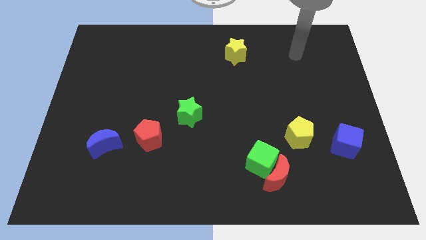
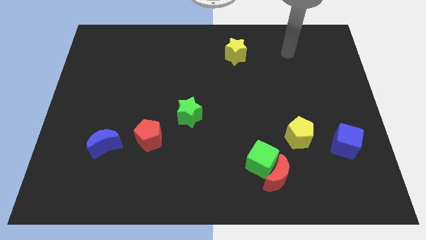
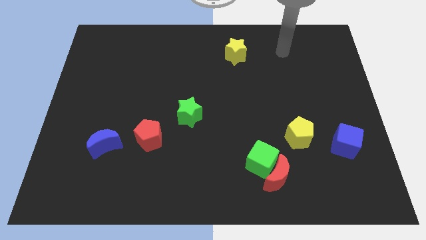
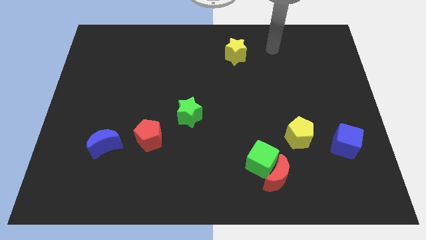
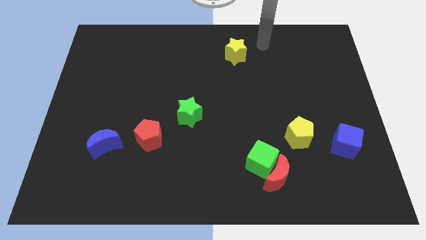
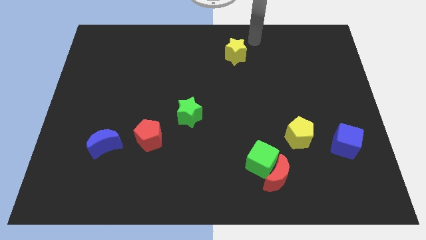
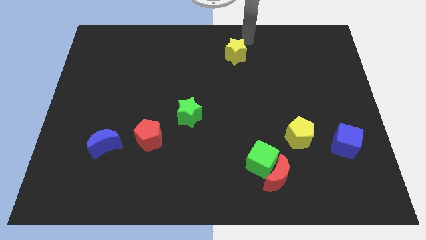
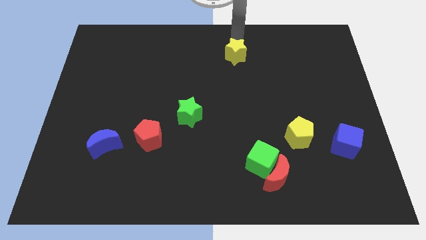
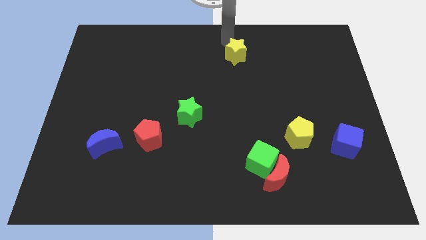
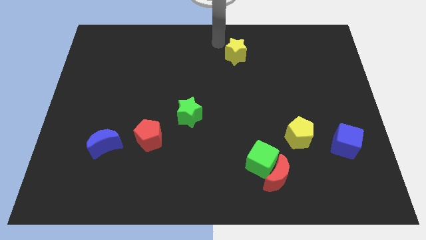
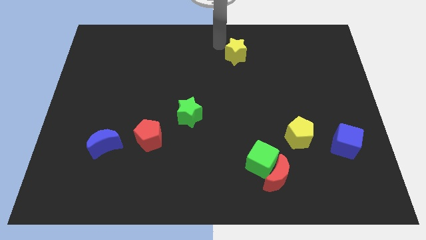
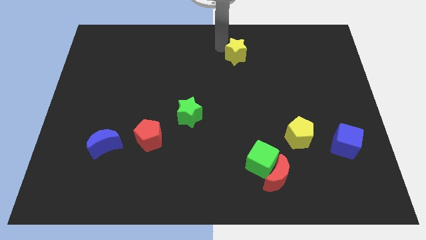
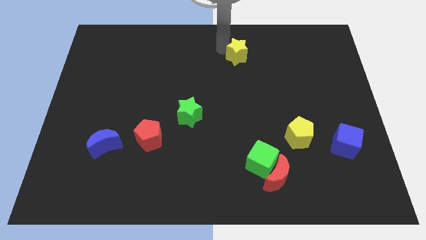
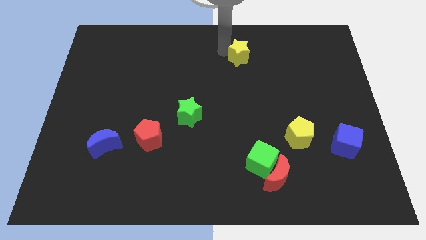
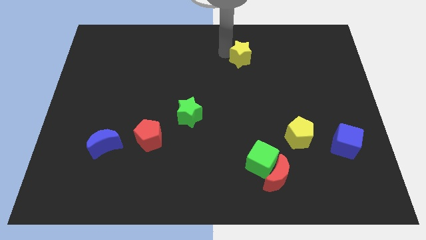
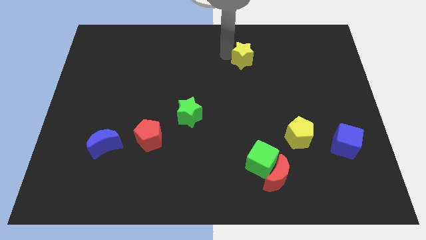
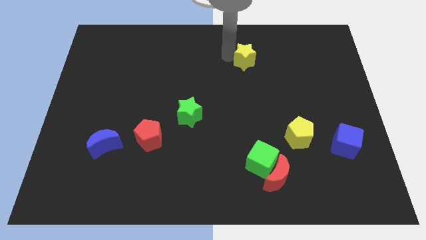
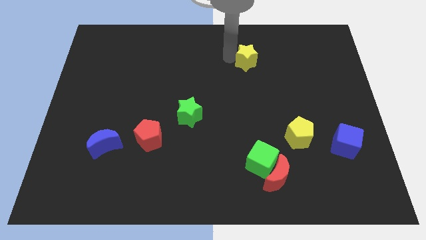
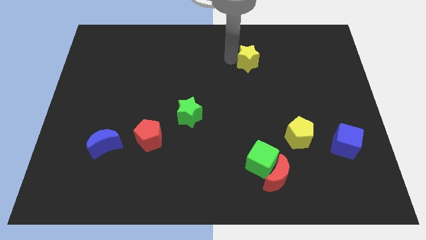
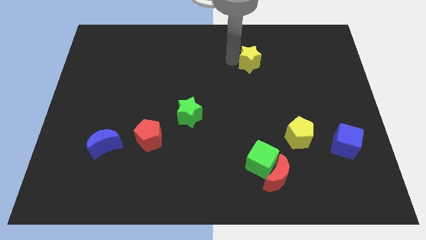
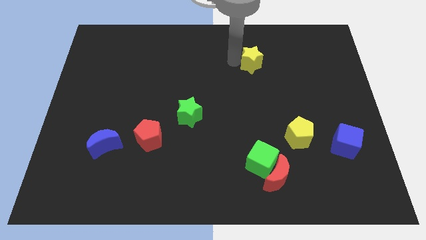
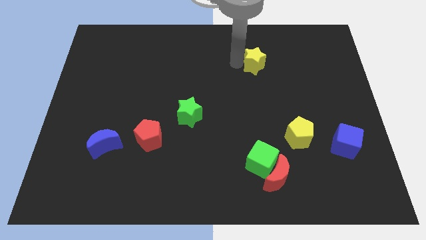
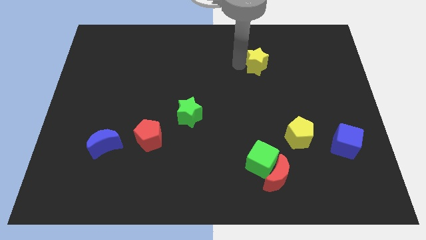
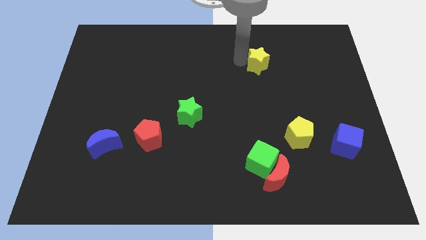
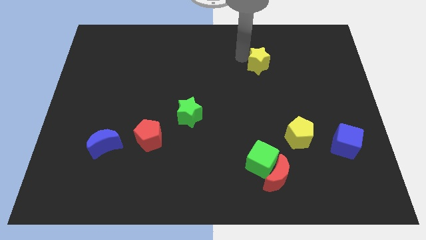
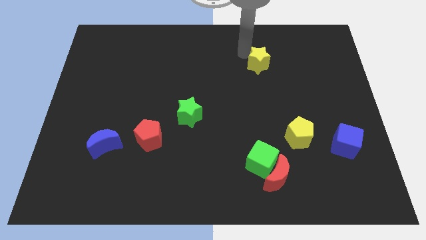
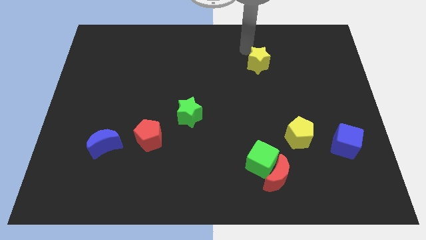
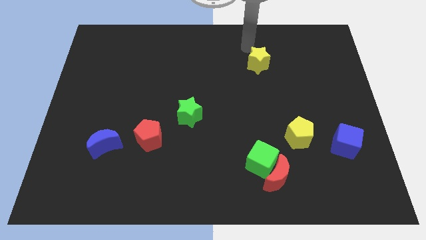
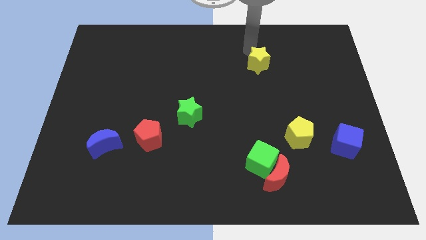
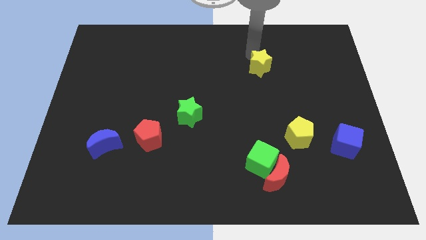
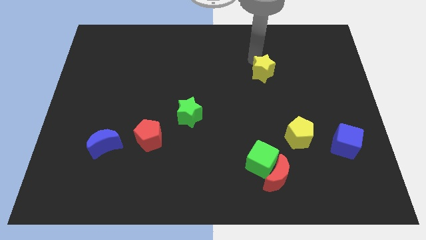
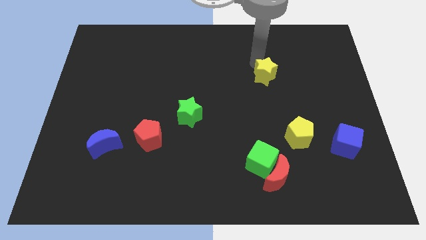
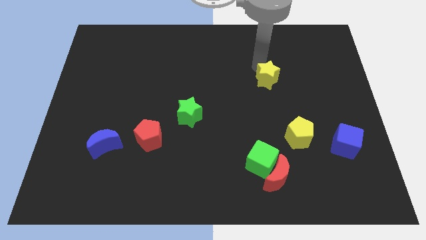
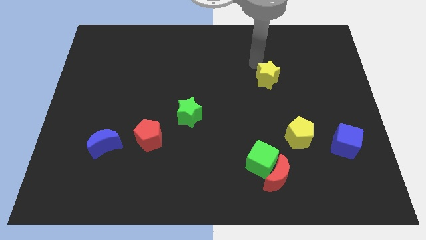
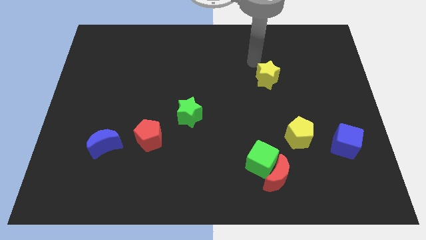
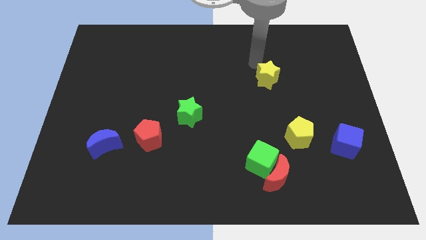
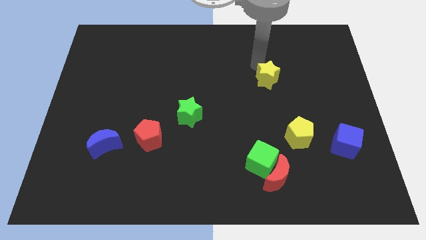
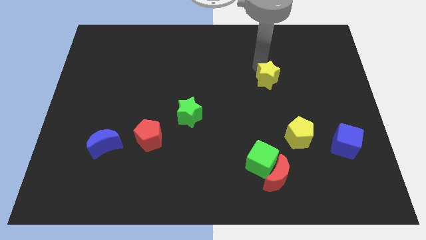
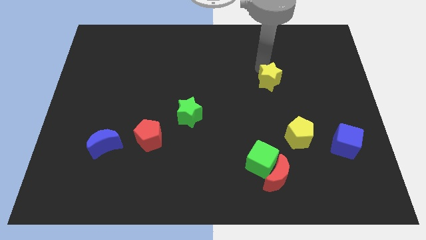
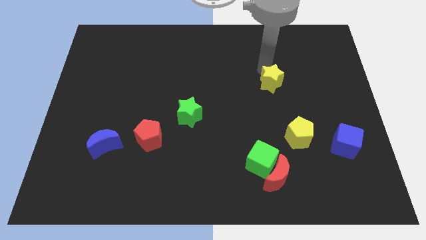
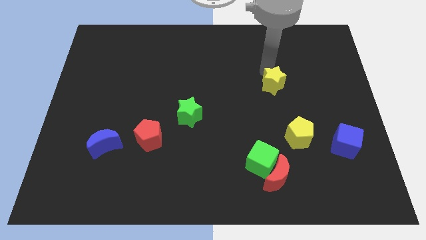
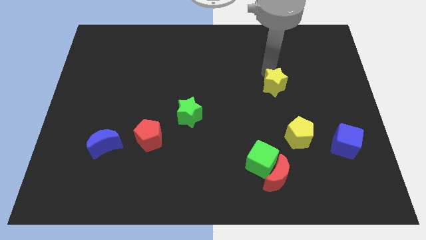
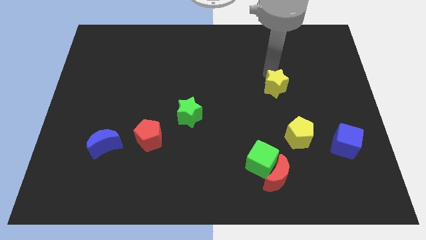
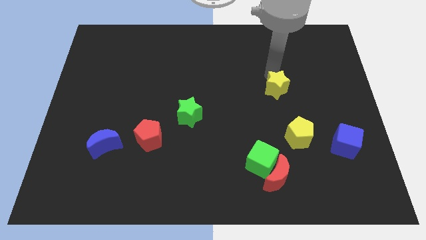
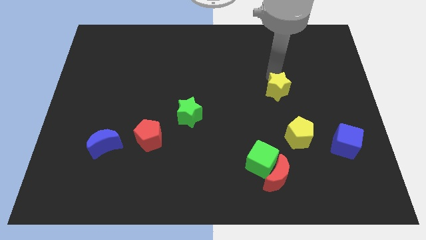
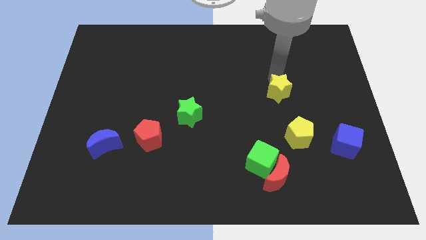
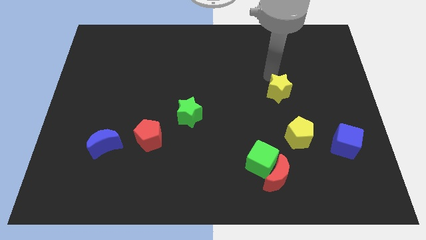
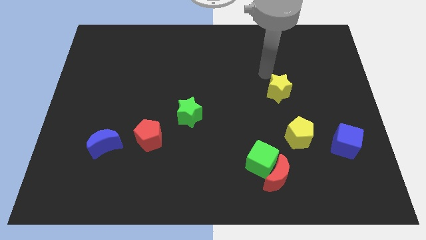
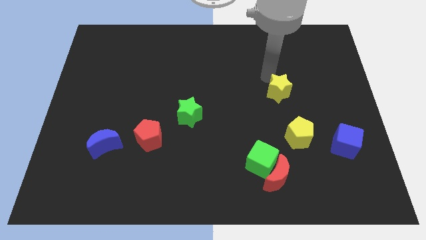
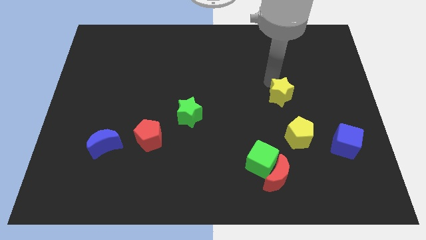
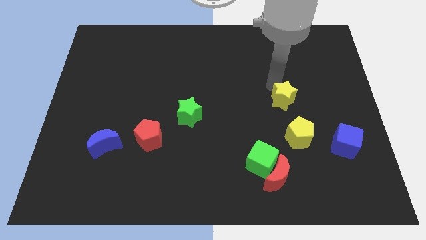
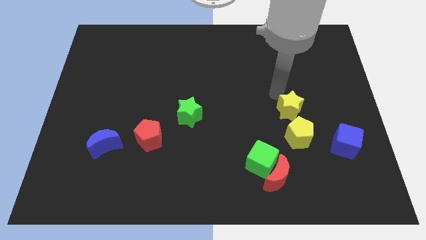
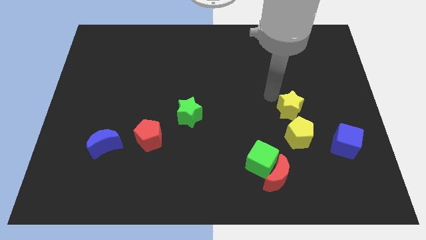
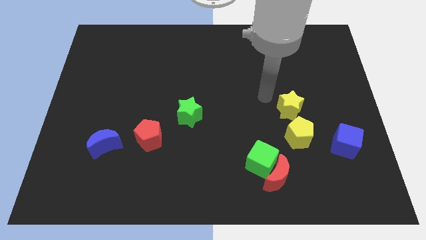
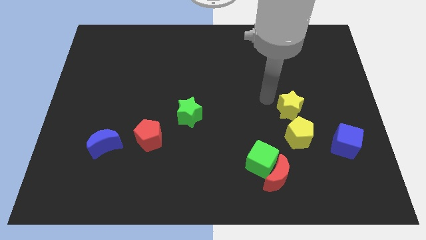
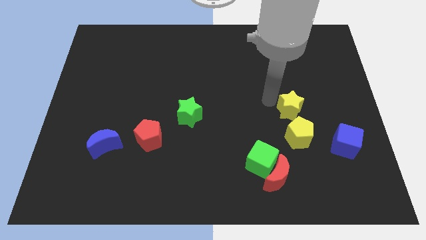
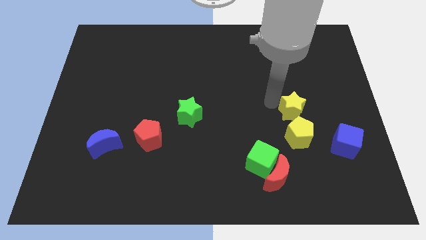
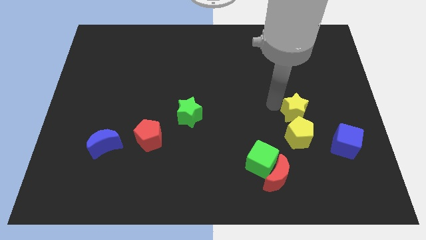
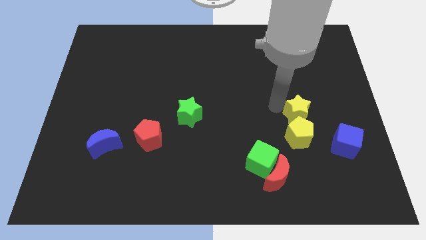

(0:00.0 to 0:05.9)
put the yellow star diagonally up and to the left of the blue cube

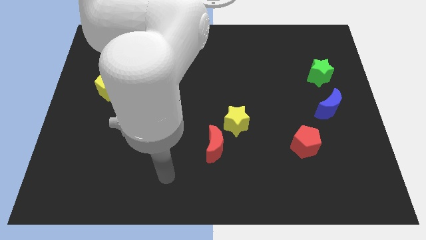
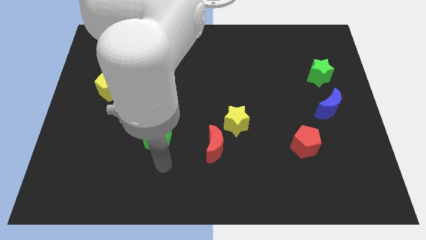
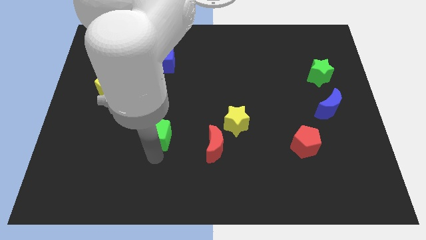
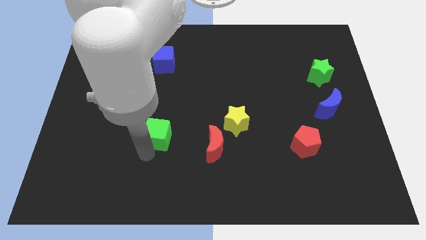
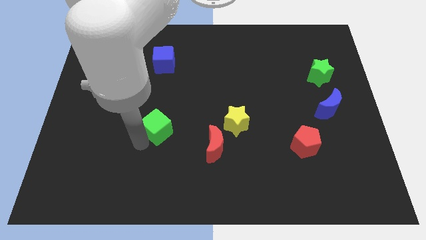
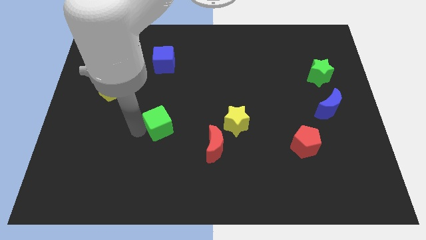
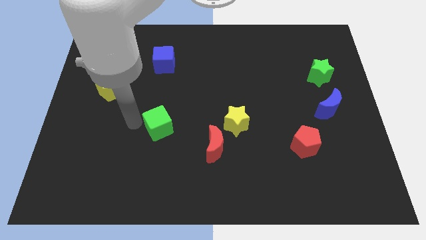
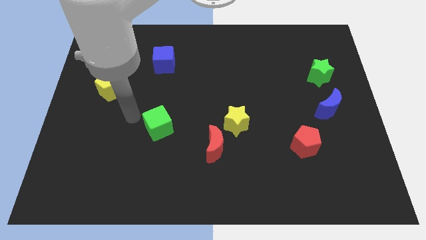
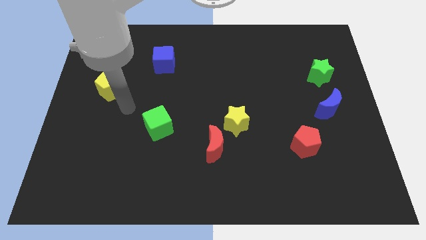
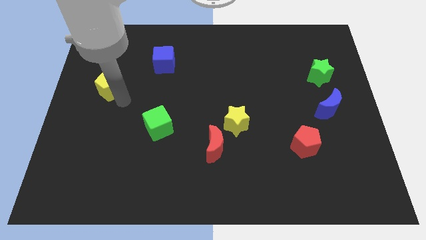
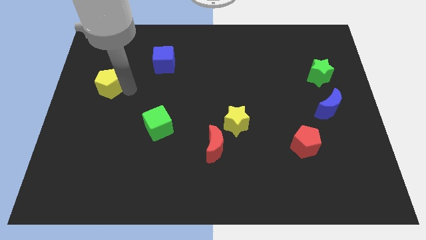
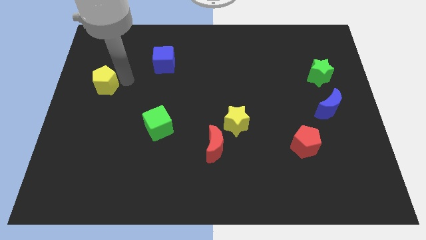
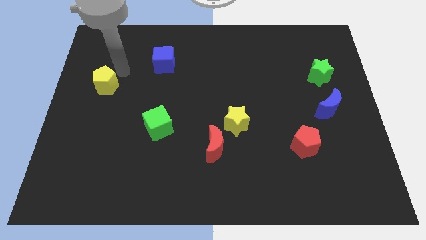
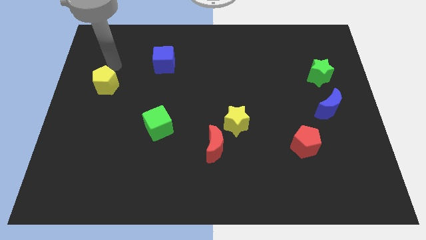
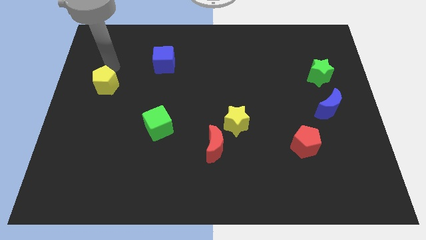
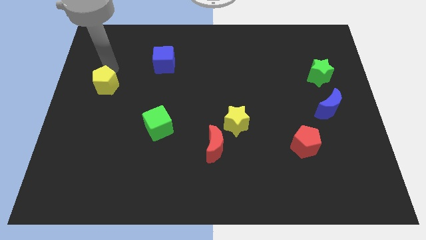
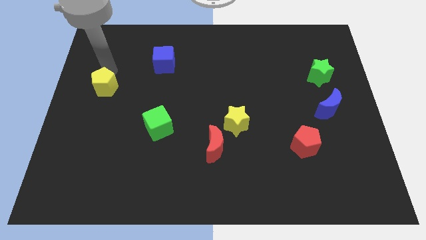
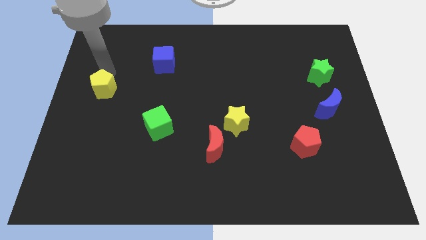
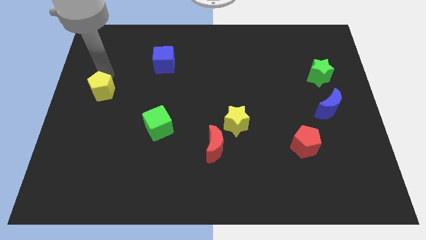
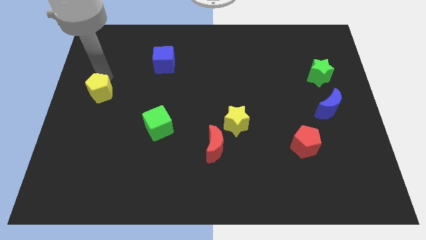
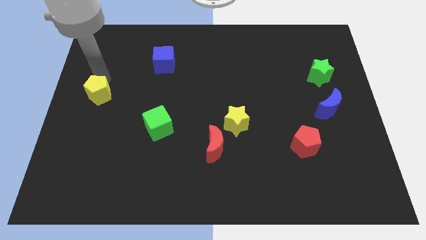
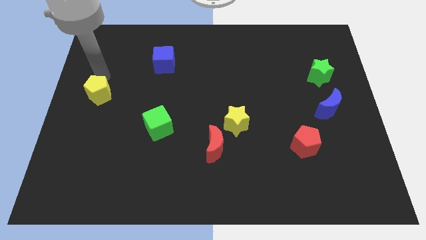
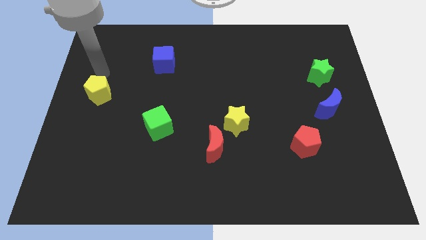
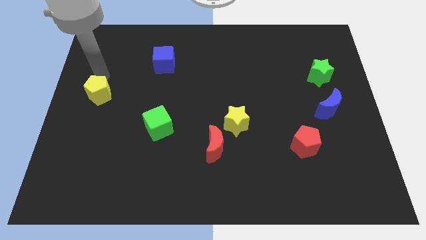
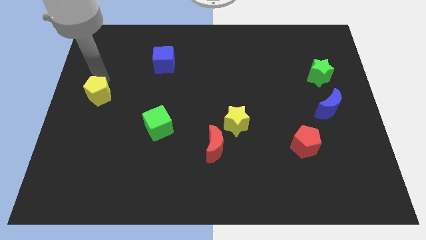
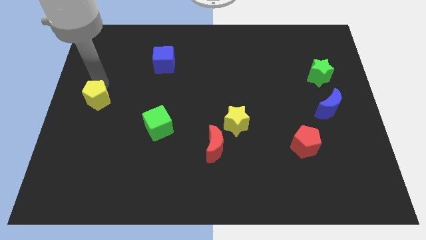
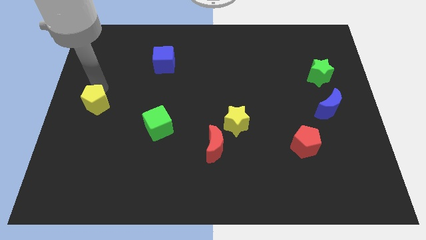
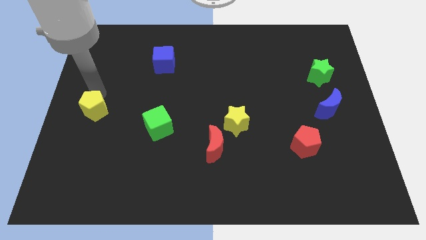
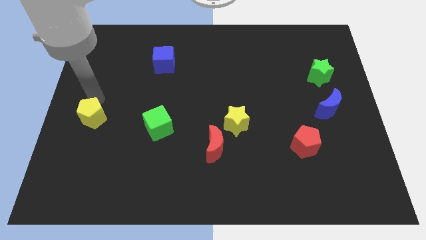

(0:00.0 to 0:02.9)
slide the yellow pentagon to the left side of the green cube
